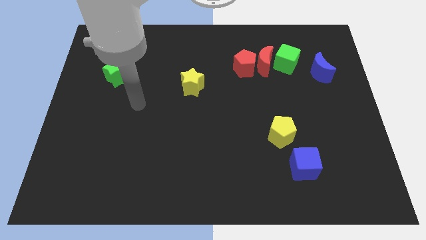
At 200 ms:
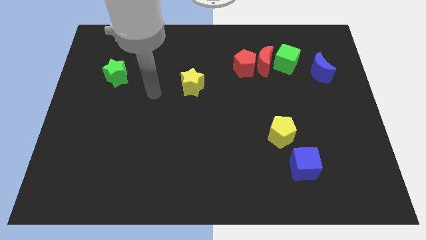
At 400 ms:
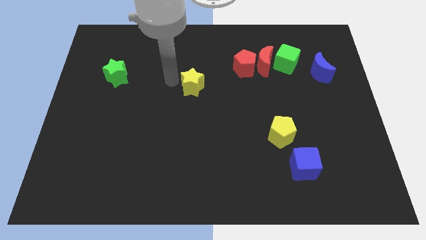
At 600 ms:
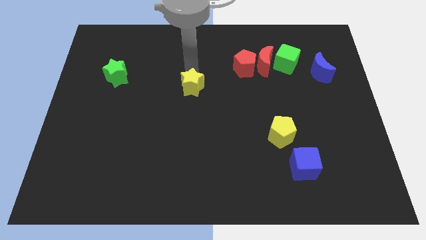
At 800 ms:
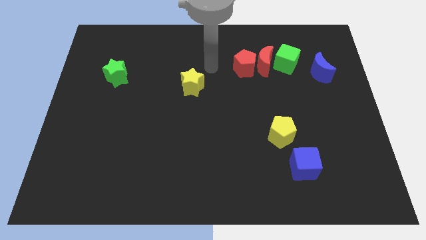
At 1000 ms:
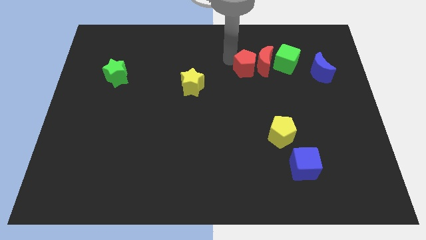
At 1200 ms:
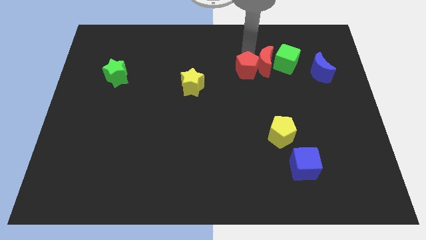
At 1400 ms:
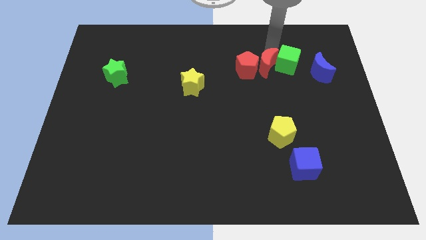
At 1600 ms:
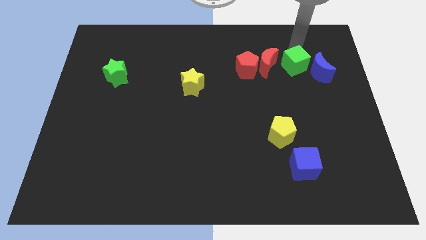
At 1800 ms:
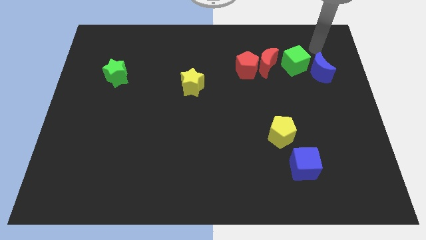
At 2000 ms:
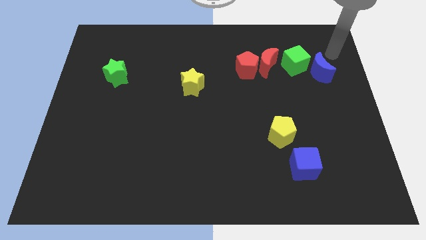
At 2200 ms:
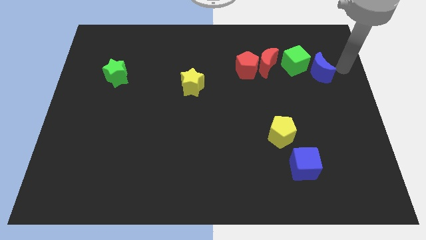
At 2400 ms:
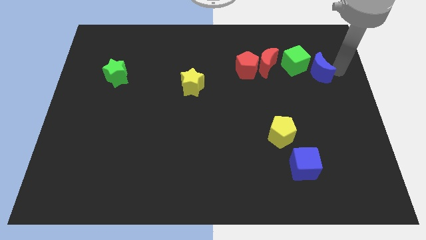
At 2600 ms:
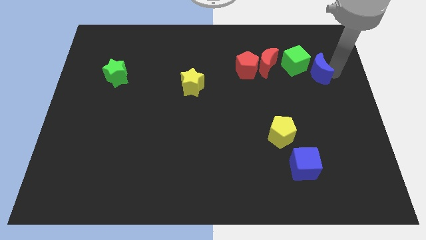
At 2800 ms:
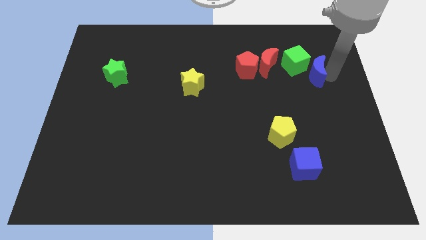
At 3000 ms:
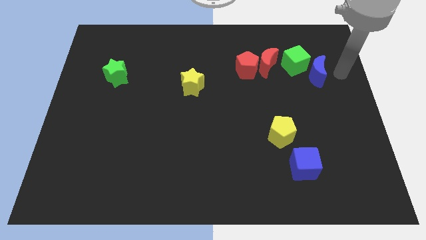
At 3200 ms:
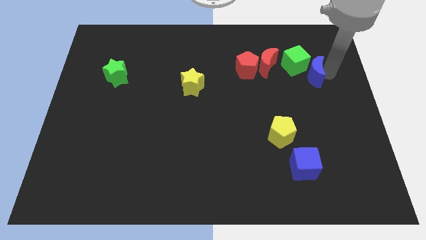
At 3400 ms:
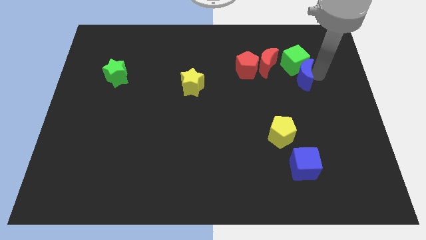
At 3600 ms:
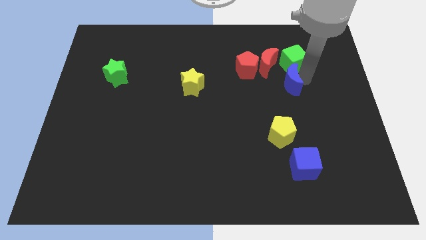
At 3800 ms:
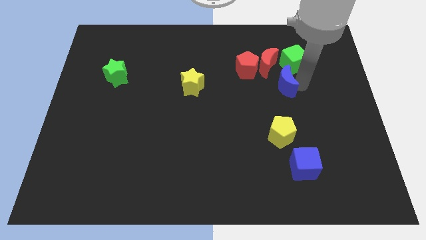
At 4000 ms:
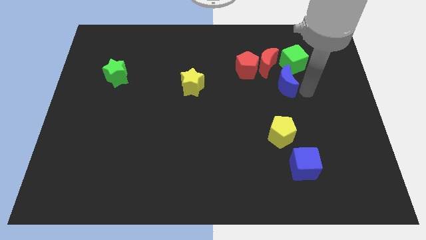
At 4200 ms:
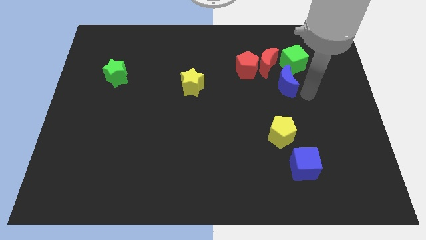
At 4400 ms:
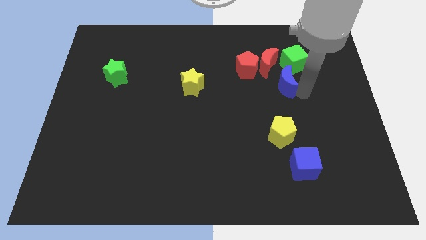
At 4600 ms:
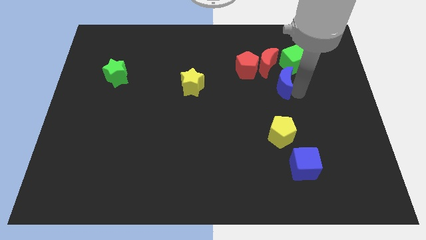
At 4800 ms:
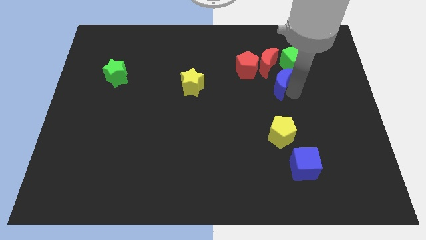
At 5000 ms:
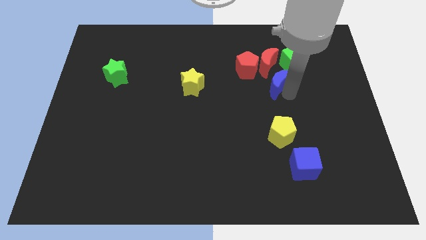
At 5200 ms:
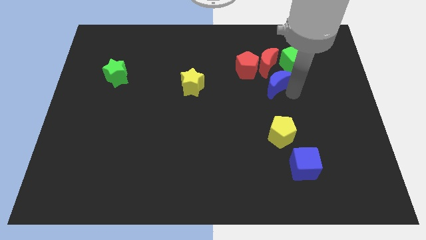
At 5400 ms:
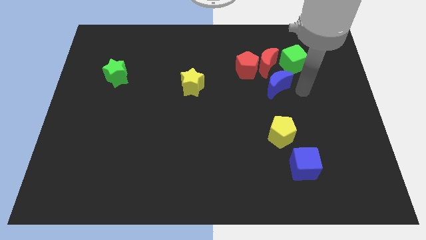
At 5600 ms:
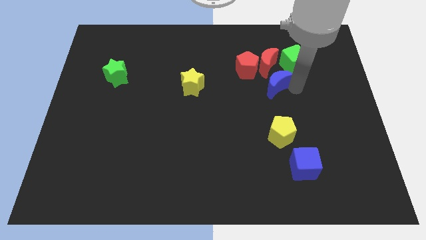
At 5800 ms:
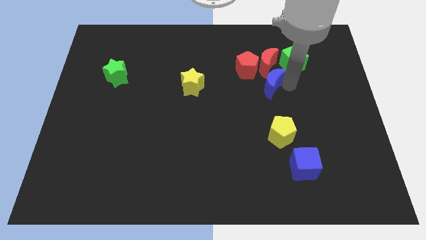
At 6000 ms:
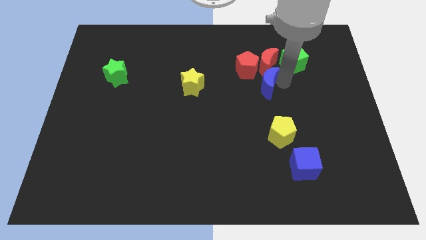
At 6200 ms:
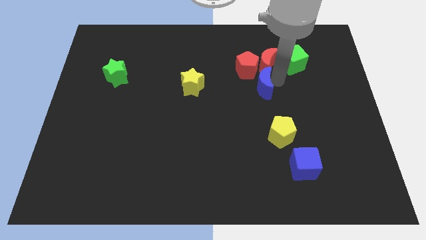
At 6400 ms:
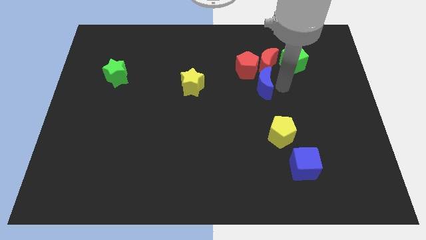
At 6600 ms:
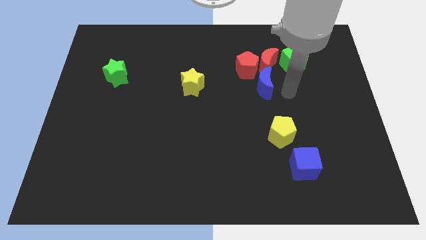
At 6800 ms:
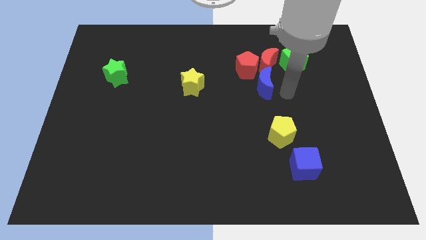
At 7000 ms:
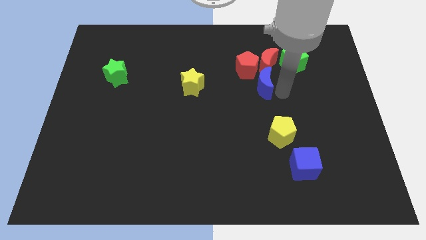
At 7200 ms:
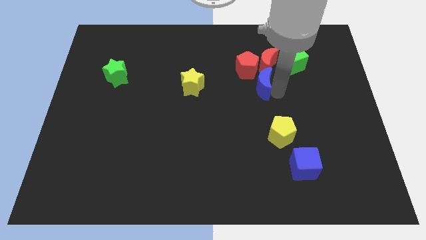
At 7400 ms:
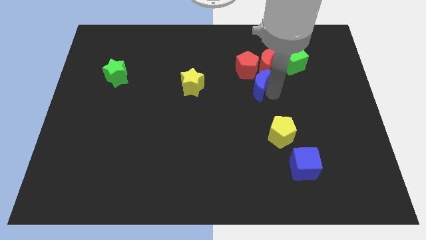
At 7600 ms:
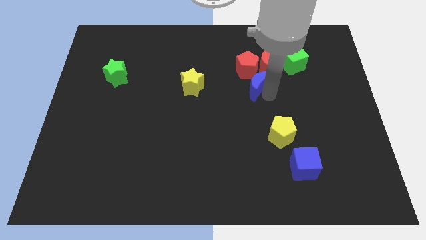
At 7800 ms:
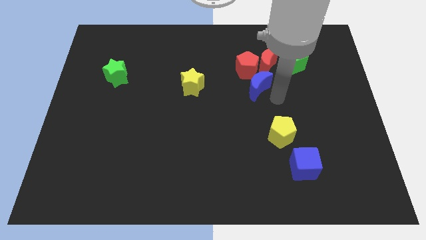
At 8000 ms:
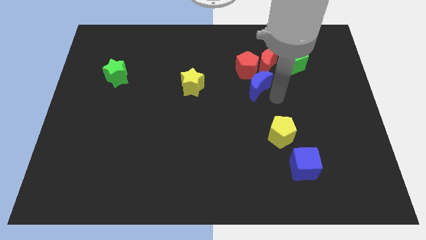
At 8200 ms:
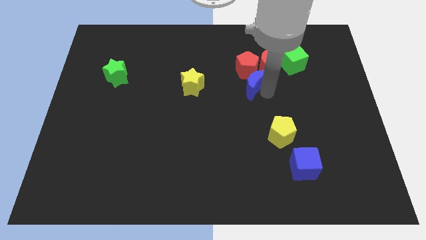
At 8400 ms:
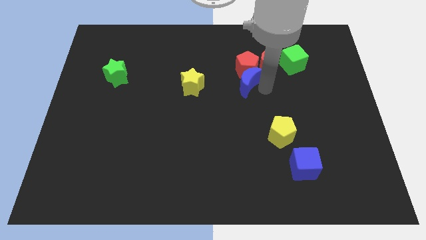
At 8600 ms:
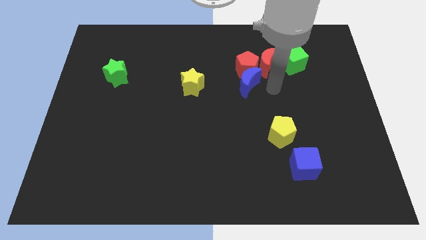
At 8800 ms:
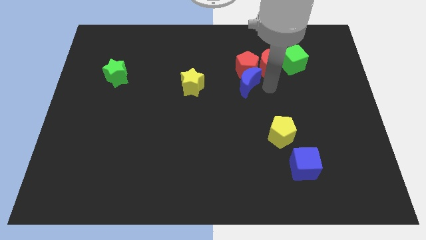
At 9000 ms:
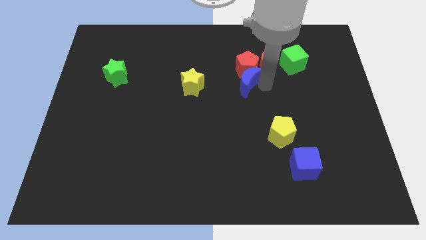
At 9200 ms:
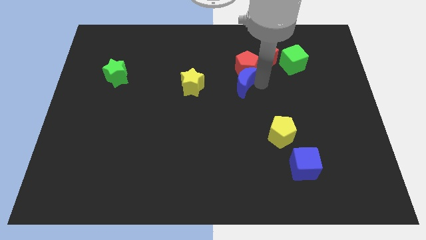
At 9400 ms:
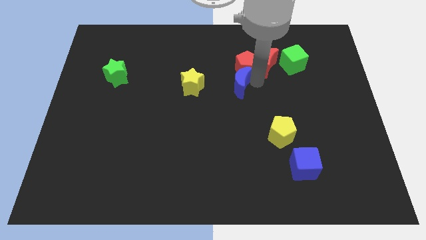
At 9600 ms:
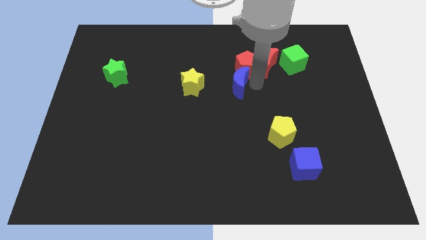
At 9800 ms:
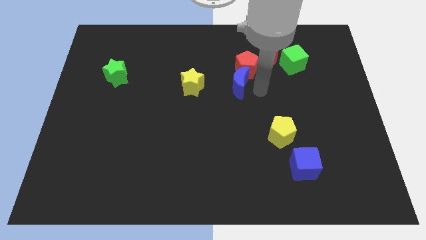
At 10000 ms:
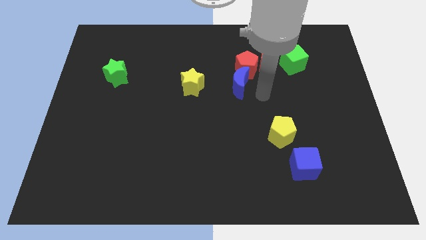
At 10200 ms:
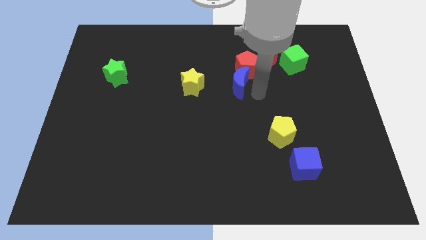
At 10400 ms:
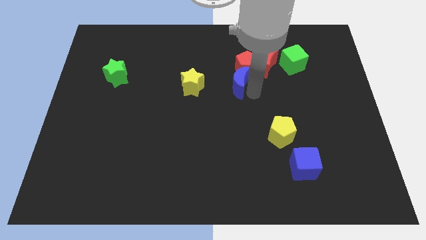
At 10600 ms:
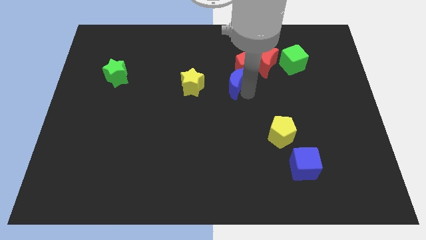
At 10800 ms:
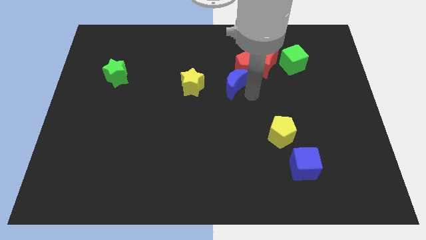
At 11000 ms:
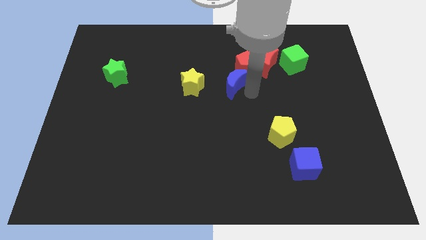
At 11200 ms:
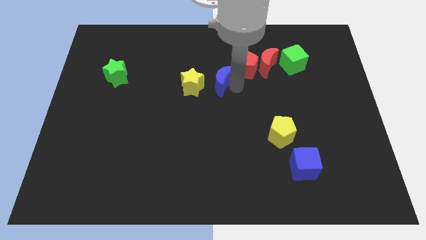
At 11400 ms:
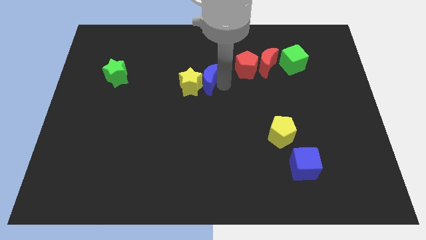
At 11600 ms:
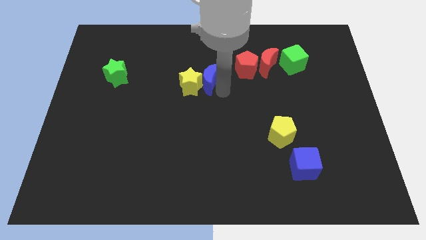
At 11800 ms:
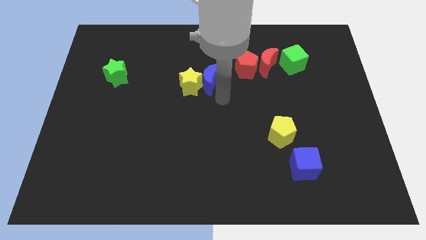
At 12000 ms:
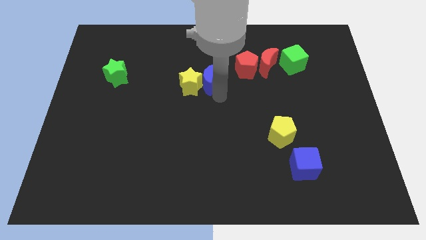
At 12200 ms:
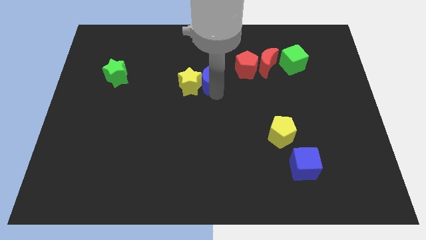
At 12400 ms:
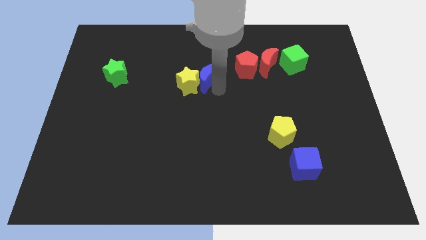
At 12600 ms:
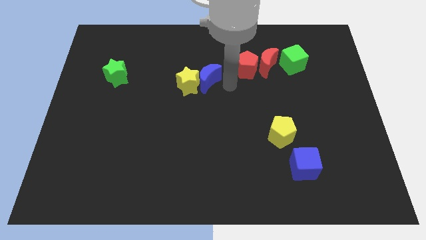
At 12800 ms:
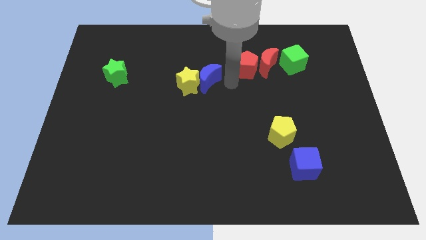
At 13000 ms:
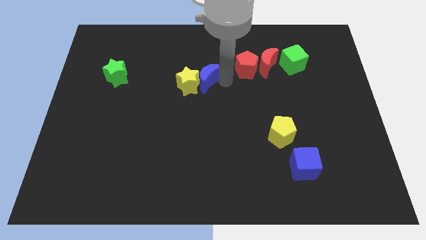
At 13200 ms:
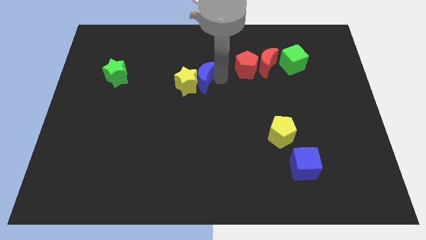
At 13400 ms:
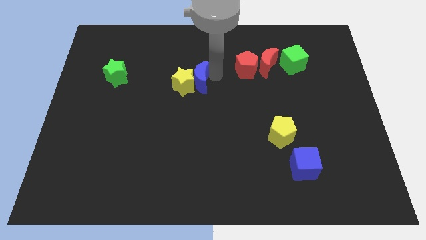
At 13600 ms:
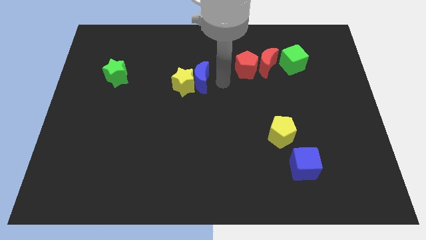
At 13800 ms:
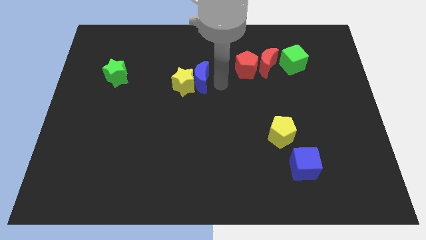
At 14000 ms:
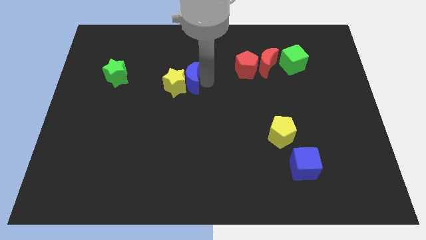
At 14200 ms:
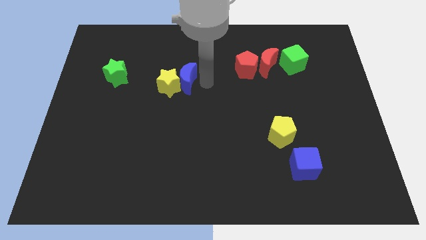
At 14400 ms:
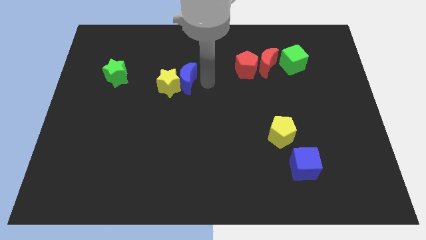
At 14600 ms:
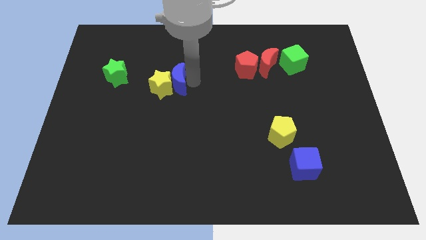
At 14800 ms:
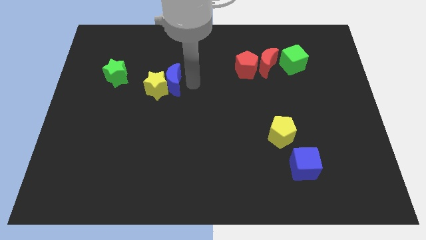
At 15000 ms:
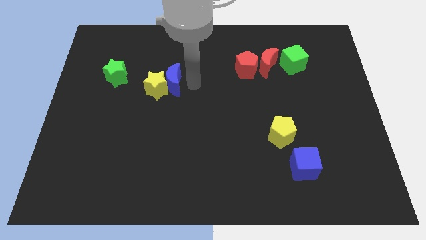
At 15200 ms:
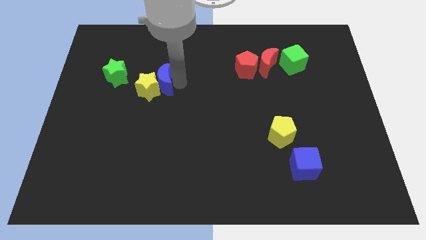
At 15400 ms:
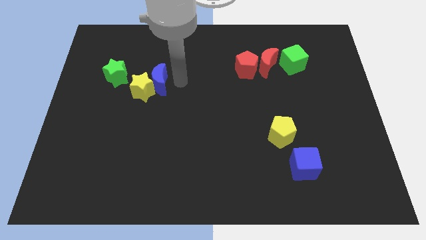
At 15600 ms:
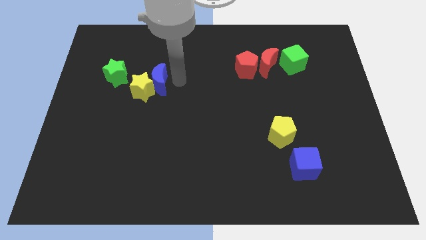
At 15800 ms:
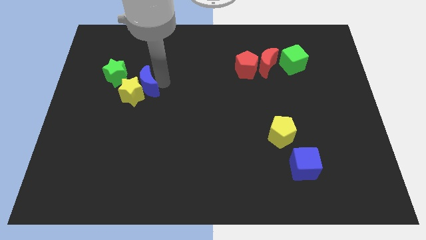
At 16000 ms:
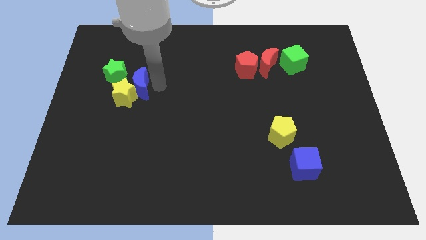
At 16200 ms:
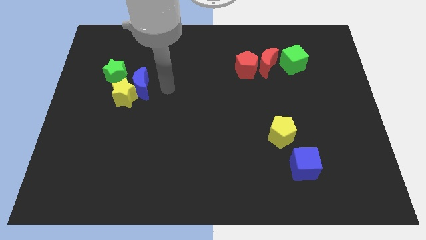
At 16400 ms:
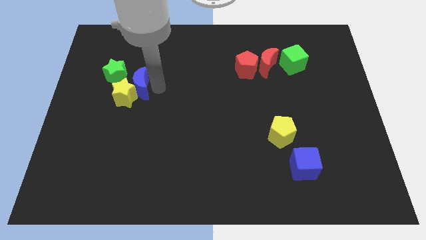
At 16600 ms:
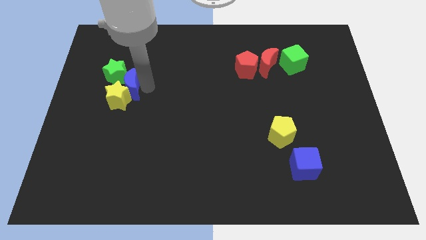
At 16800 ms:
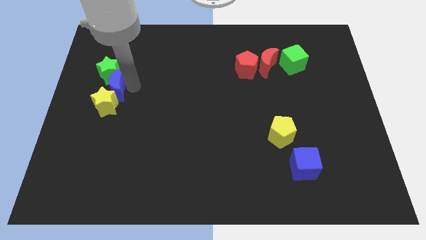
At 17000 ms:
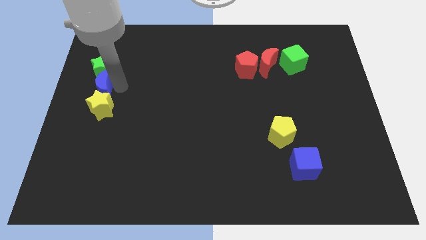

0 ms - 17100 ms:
push the blue moon to the left side
